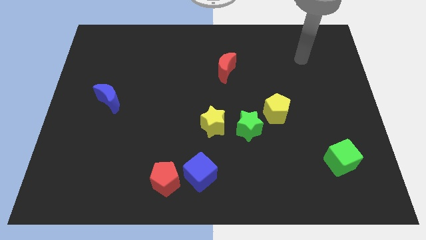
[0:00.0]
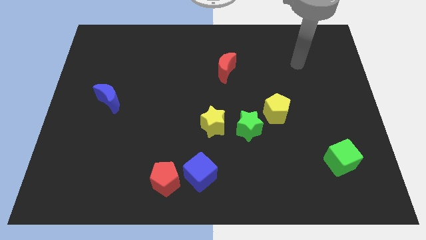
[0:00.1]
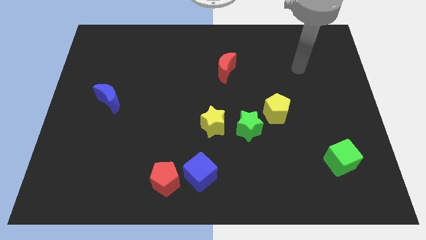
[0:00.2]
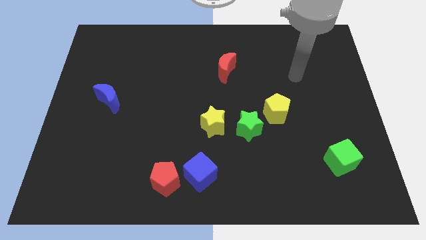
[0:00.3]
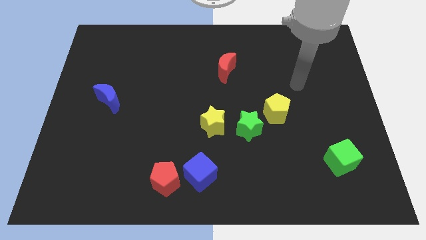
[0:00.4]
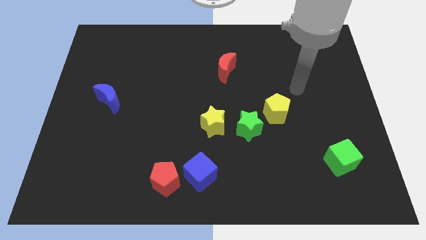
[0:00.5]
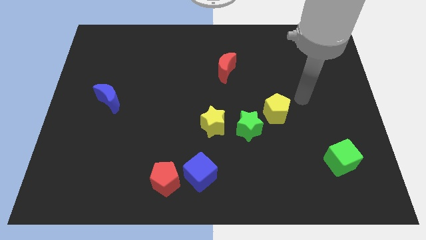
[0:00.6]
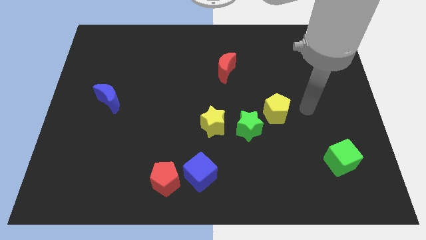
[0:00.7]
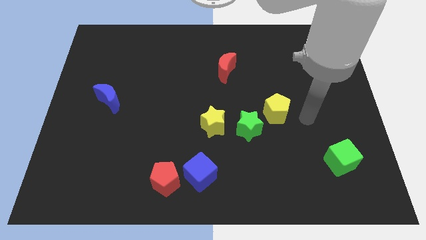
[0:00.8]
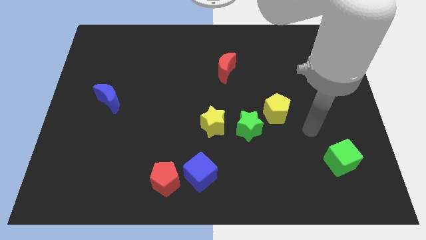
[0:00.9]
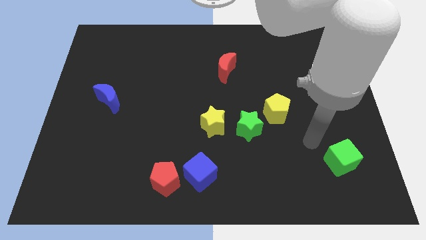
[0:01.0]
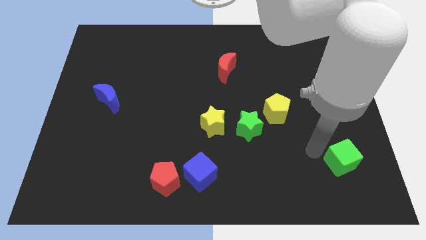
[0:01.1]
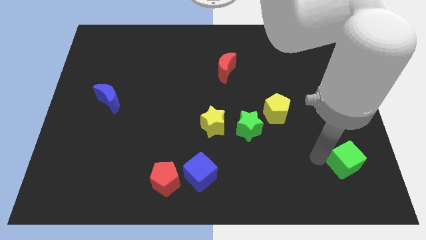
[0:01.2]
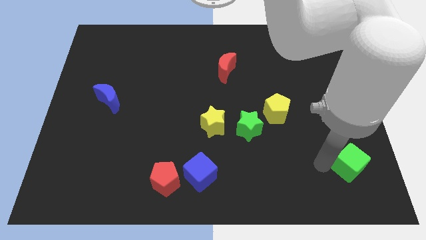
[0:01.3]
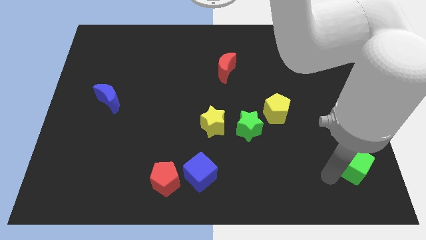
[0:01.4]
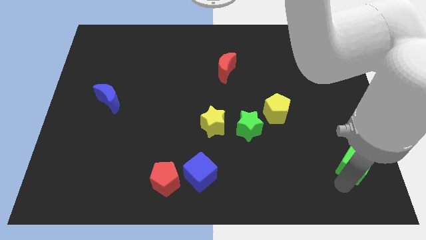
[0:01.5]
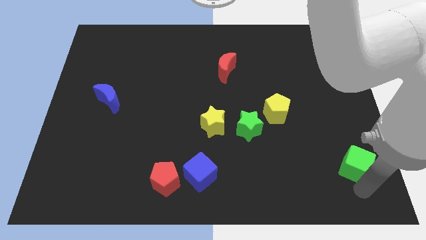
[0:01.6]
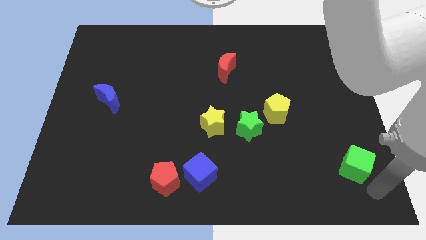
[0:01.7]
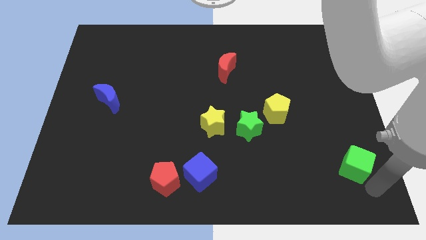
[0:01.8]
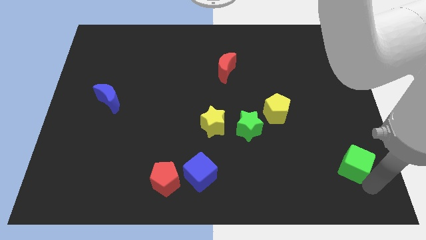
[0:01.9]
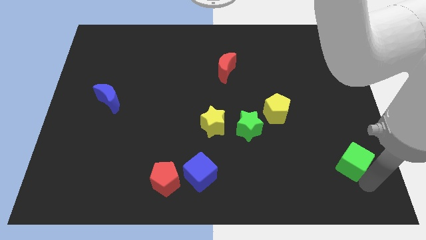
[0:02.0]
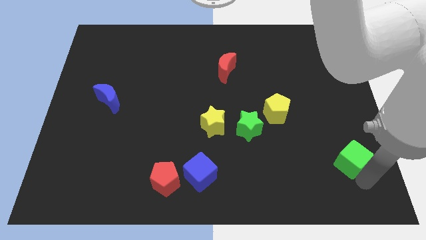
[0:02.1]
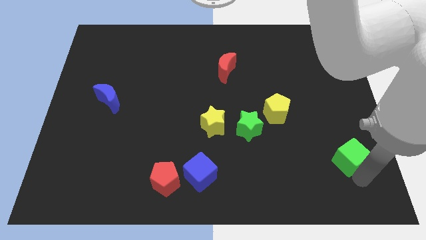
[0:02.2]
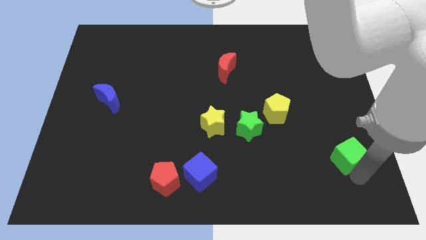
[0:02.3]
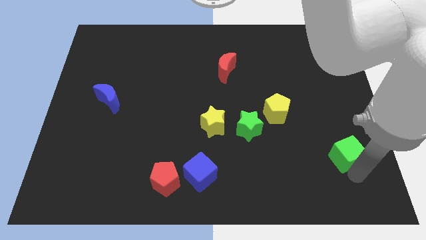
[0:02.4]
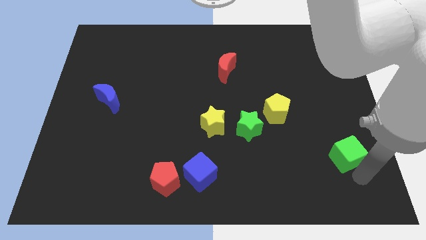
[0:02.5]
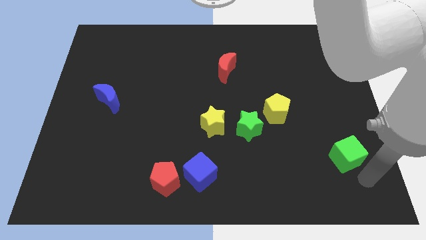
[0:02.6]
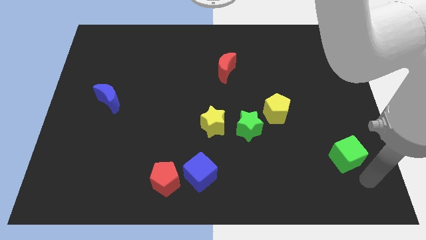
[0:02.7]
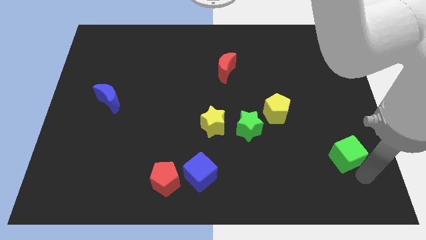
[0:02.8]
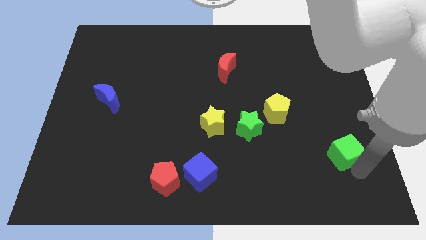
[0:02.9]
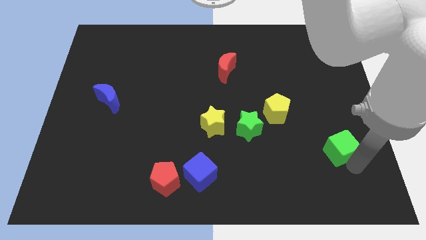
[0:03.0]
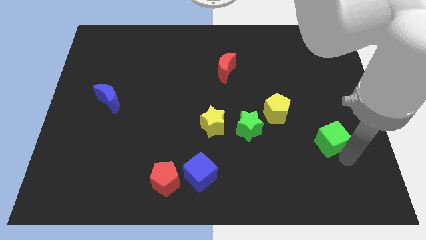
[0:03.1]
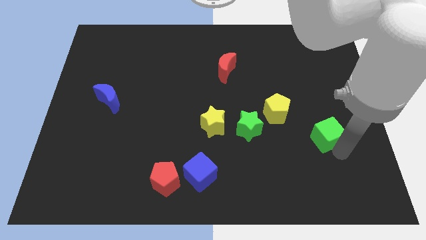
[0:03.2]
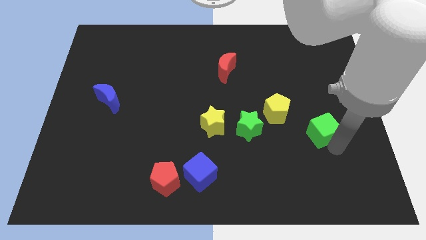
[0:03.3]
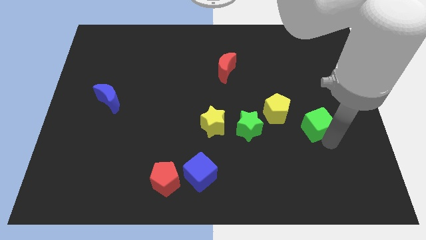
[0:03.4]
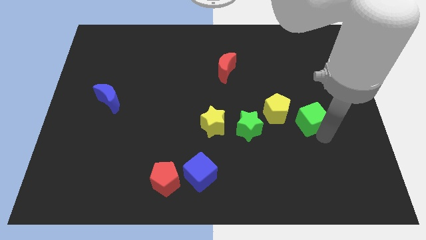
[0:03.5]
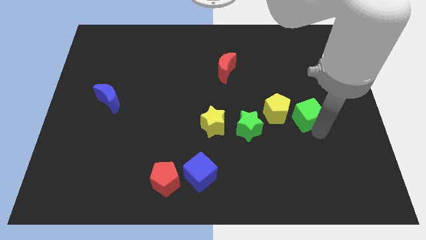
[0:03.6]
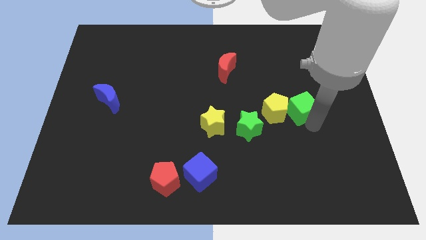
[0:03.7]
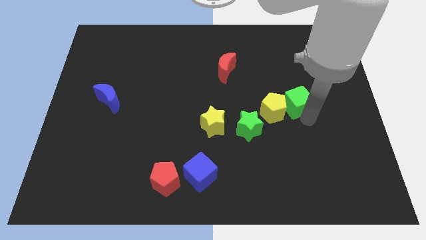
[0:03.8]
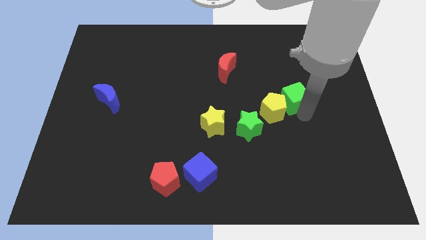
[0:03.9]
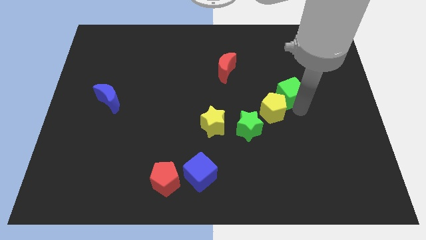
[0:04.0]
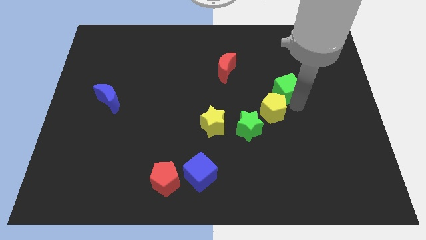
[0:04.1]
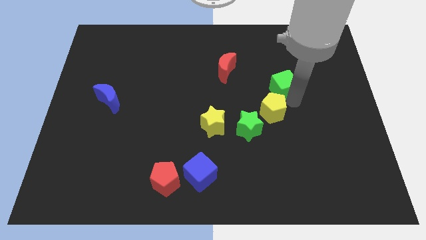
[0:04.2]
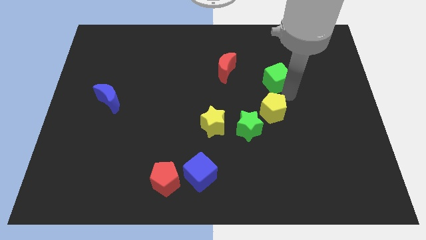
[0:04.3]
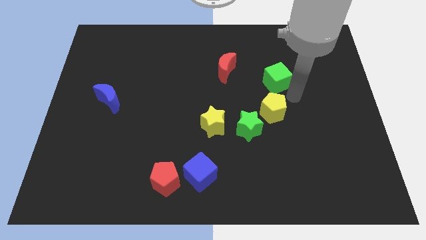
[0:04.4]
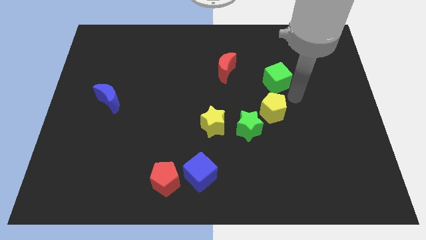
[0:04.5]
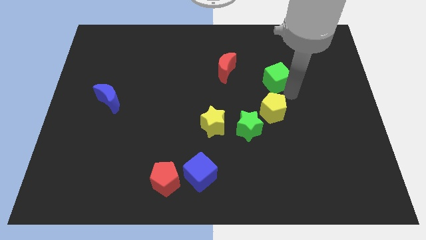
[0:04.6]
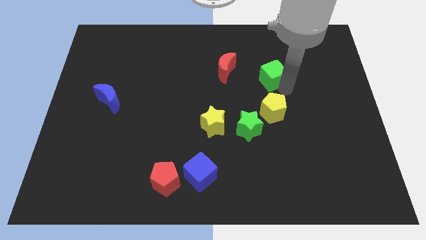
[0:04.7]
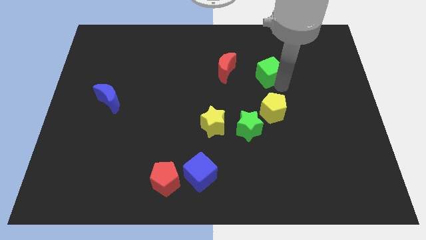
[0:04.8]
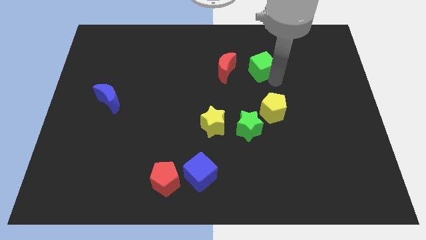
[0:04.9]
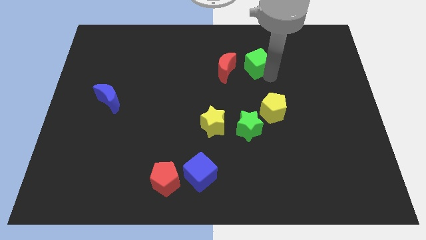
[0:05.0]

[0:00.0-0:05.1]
put the green cube diagonally up and to the right of the red moon

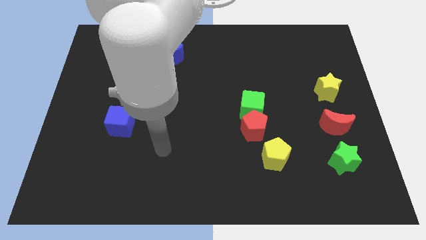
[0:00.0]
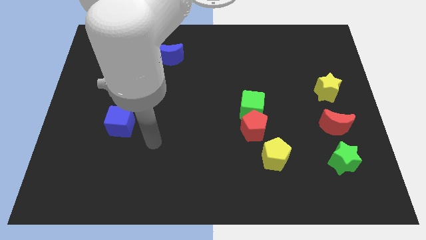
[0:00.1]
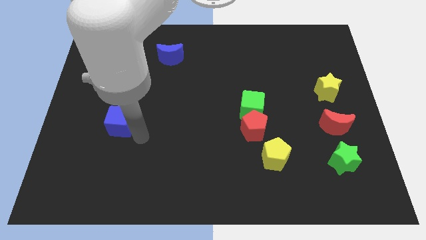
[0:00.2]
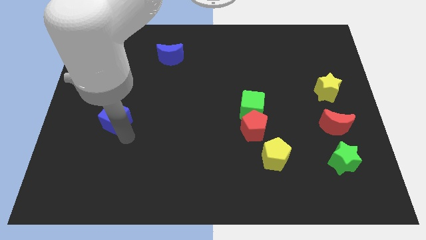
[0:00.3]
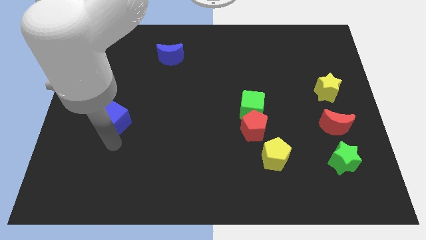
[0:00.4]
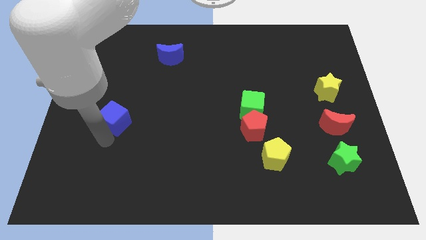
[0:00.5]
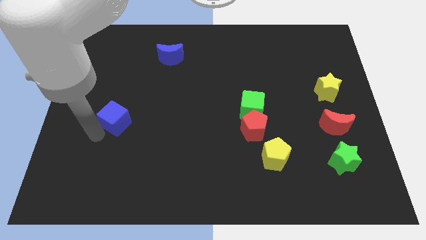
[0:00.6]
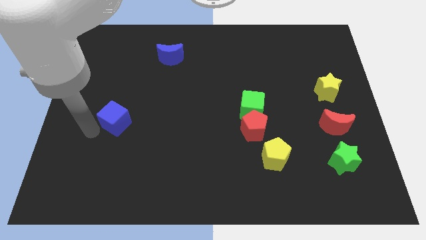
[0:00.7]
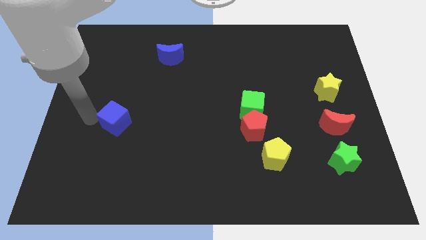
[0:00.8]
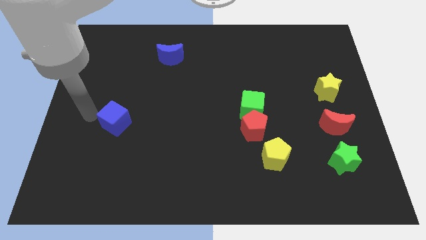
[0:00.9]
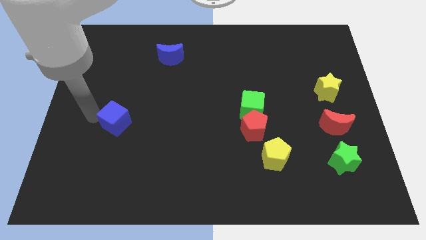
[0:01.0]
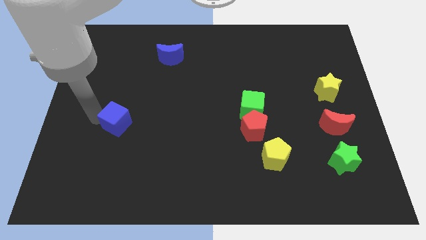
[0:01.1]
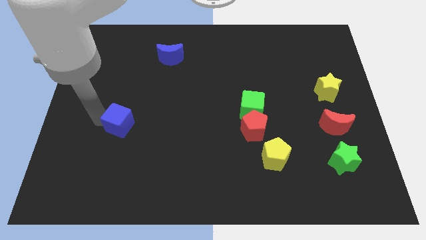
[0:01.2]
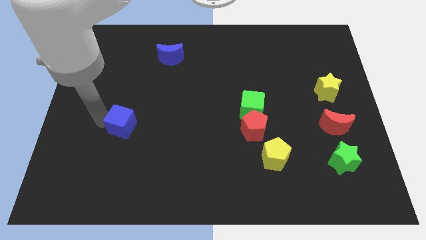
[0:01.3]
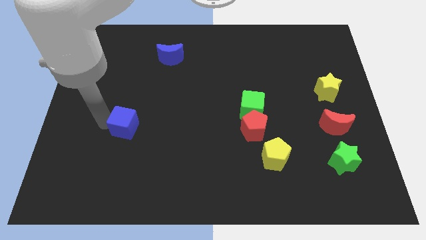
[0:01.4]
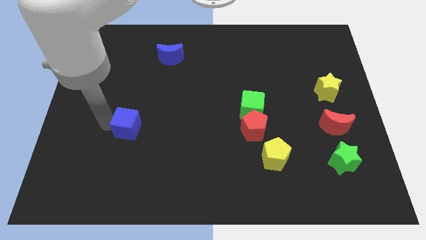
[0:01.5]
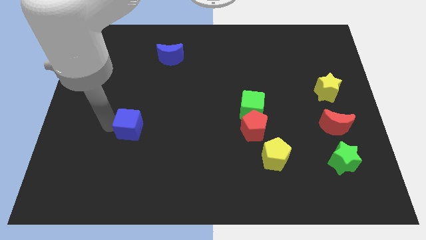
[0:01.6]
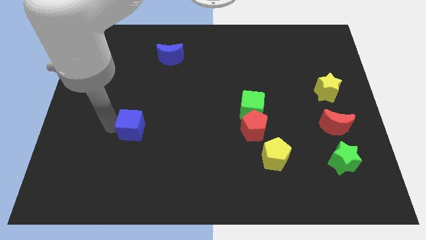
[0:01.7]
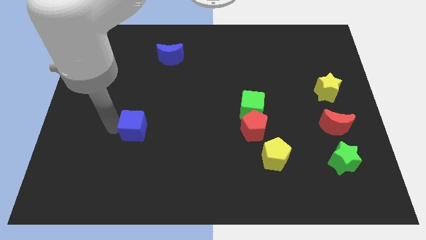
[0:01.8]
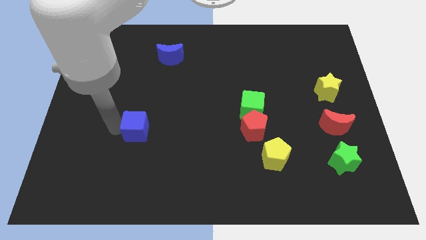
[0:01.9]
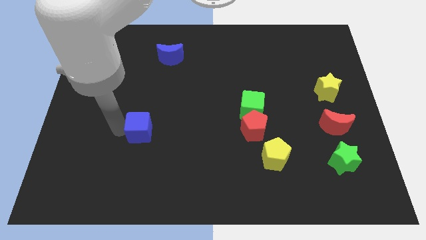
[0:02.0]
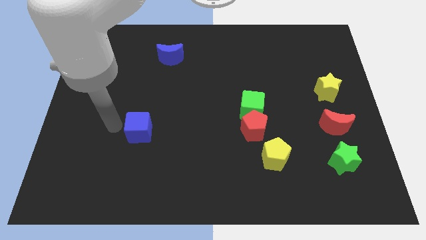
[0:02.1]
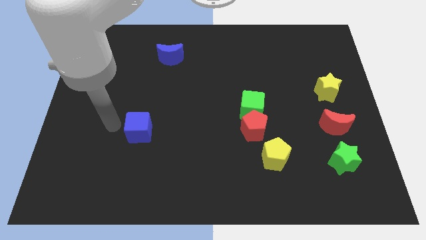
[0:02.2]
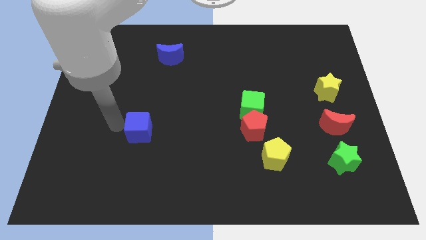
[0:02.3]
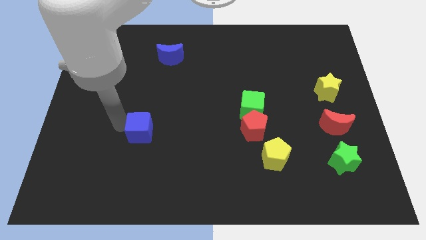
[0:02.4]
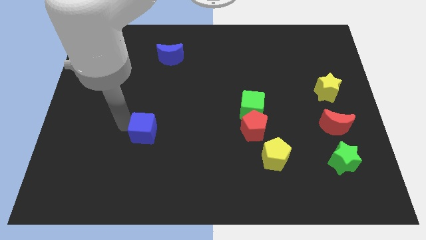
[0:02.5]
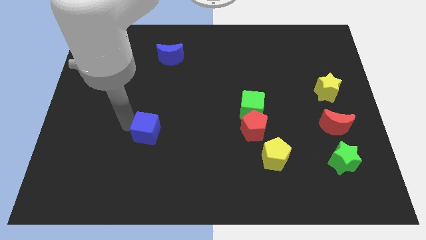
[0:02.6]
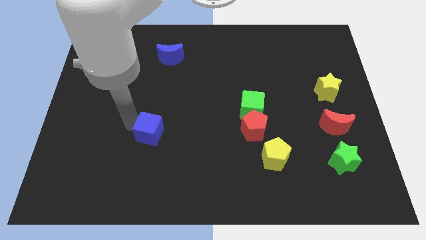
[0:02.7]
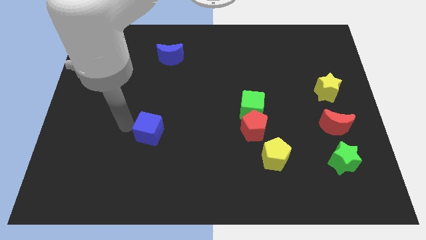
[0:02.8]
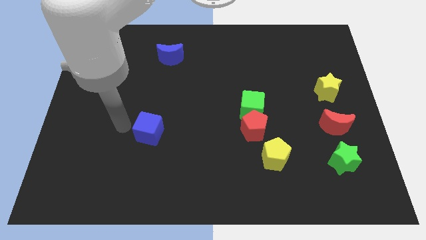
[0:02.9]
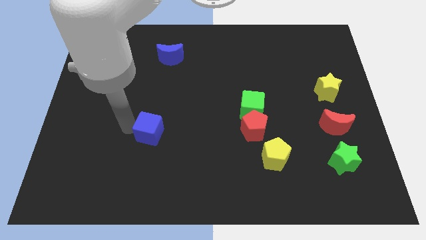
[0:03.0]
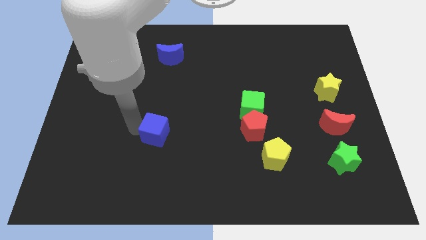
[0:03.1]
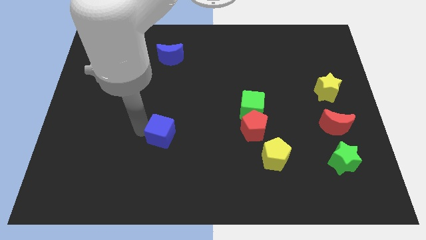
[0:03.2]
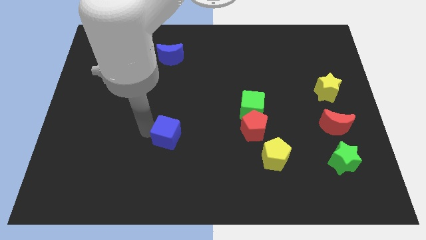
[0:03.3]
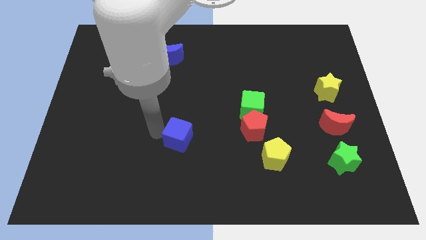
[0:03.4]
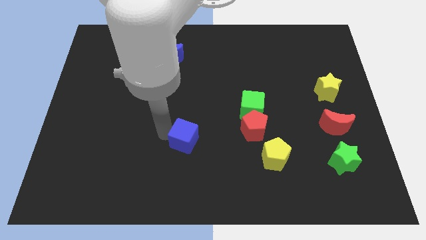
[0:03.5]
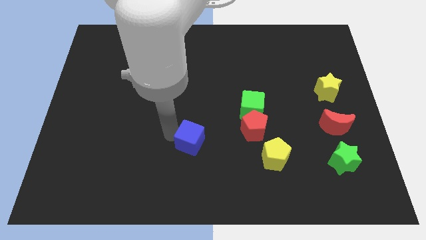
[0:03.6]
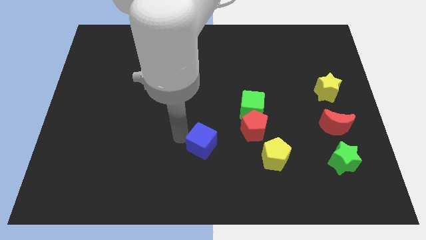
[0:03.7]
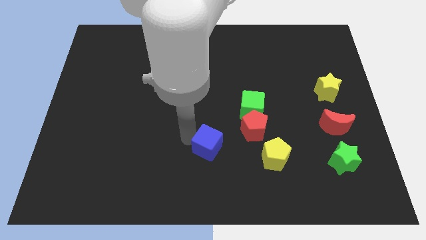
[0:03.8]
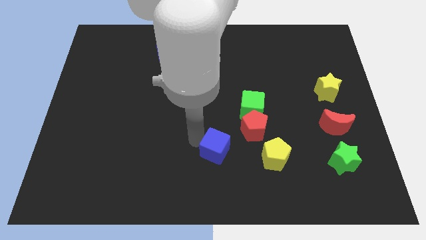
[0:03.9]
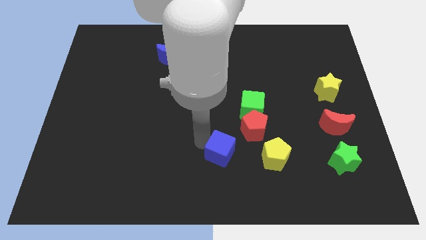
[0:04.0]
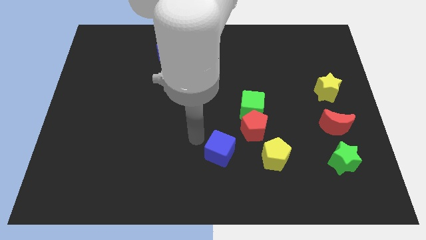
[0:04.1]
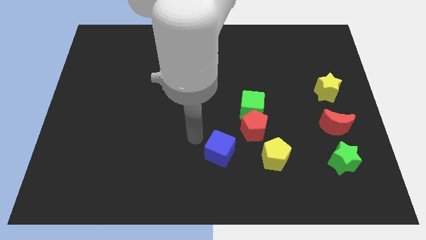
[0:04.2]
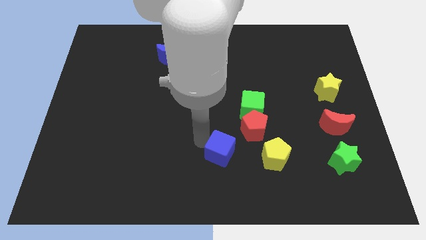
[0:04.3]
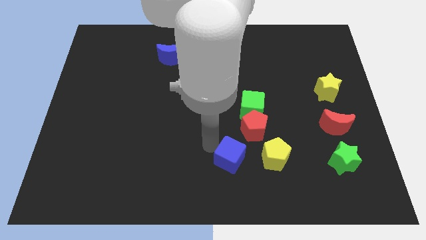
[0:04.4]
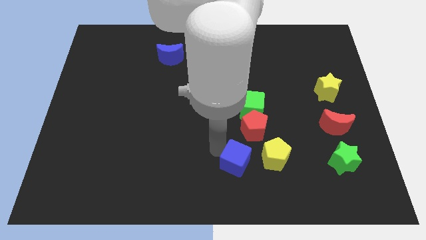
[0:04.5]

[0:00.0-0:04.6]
push the blue cube below the red pentagon
